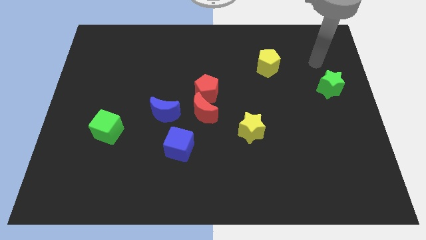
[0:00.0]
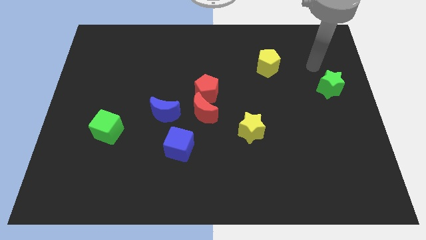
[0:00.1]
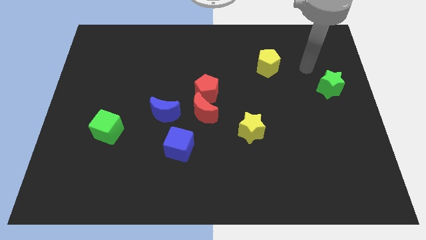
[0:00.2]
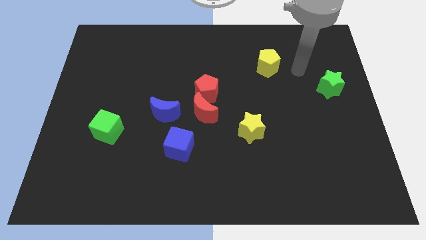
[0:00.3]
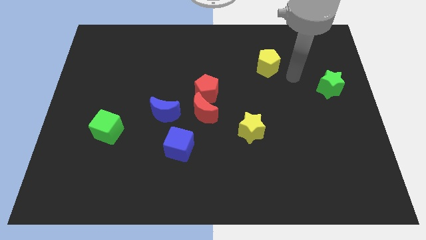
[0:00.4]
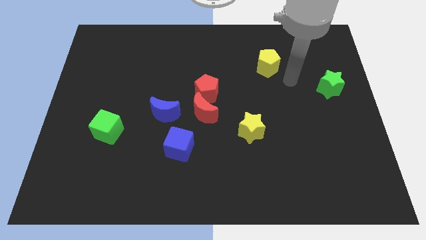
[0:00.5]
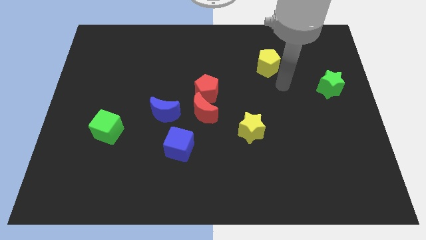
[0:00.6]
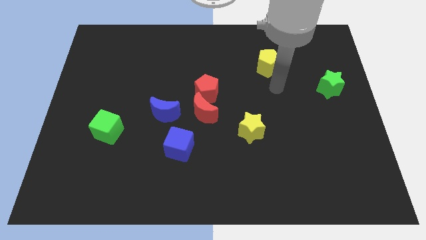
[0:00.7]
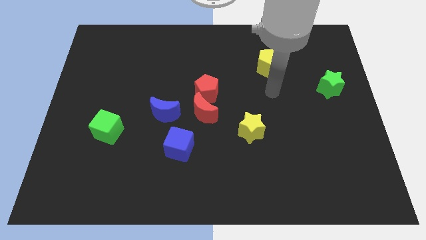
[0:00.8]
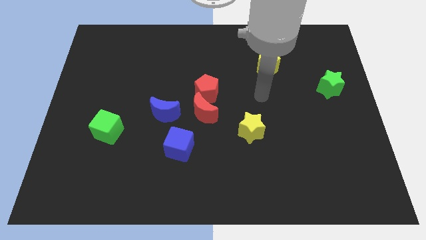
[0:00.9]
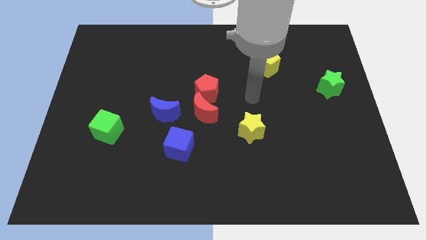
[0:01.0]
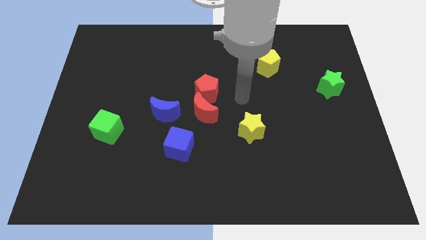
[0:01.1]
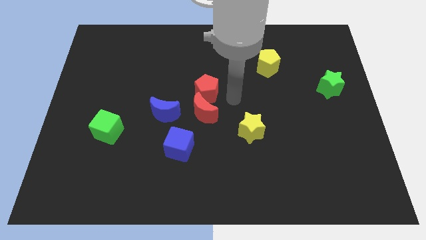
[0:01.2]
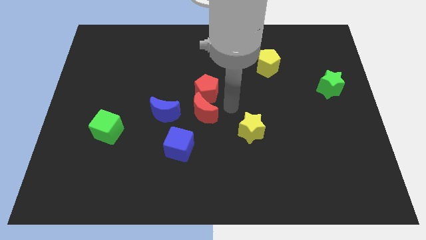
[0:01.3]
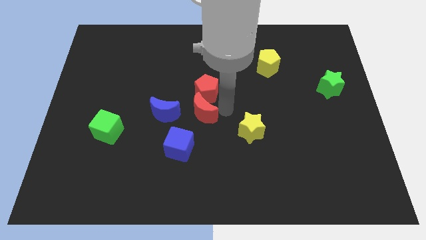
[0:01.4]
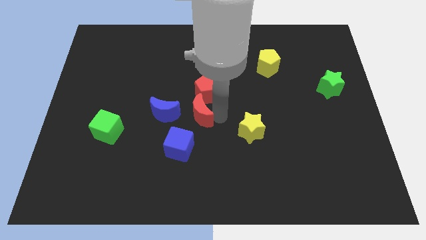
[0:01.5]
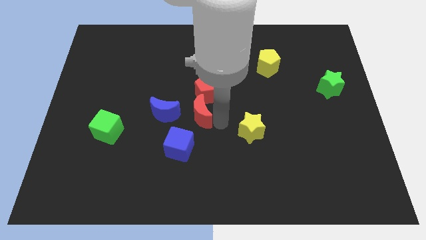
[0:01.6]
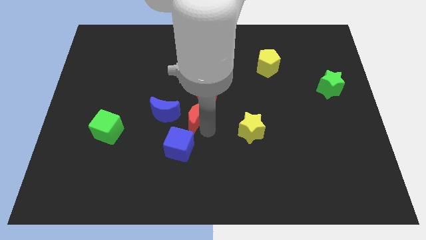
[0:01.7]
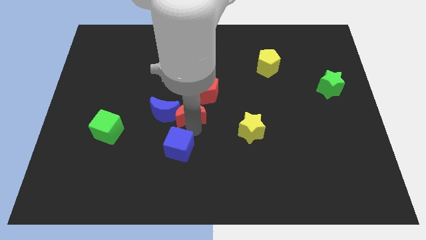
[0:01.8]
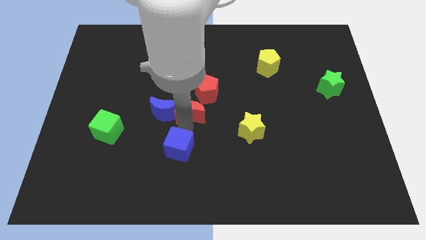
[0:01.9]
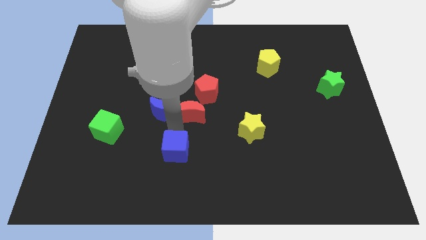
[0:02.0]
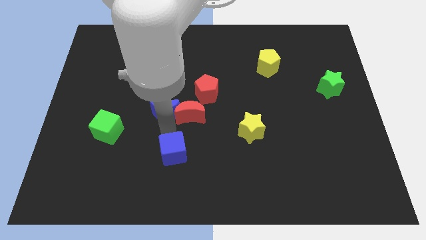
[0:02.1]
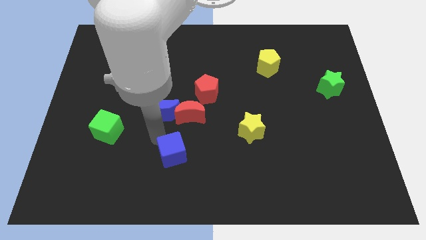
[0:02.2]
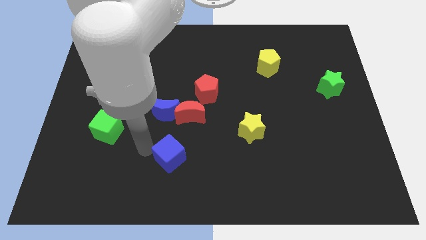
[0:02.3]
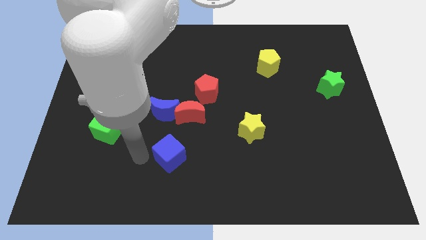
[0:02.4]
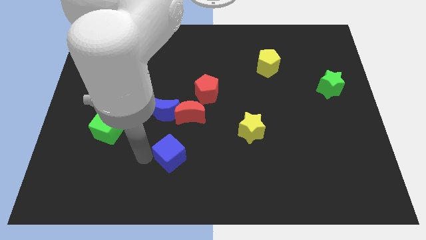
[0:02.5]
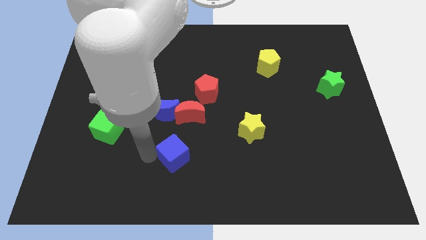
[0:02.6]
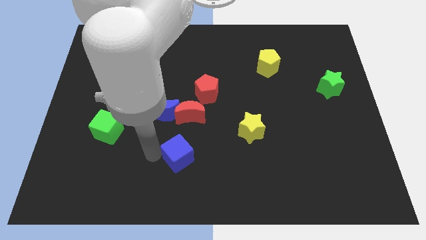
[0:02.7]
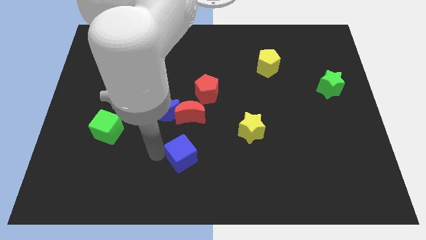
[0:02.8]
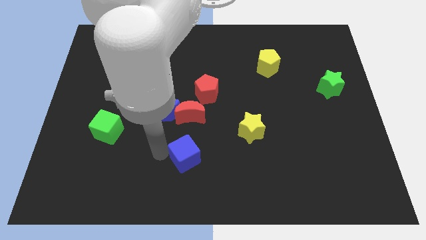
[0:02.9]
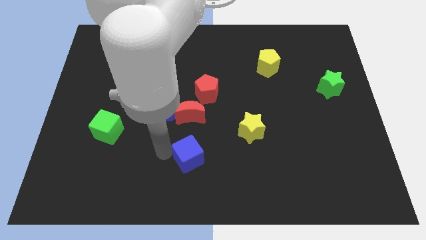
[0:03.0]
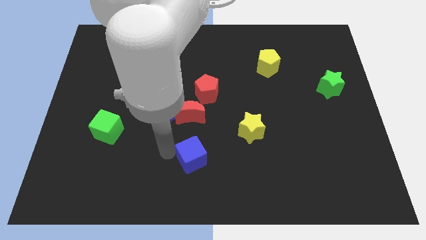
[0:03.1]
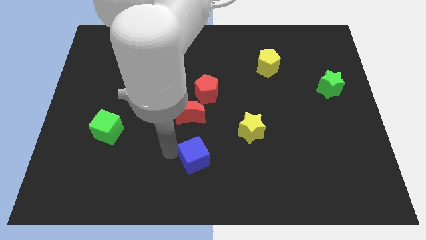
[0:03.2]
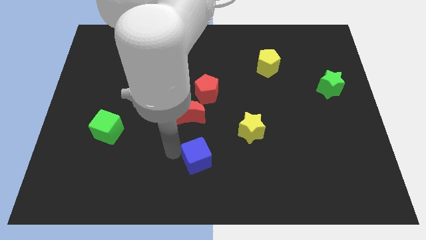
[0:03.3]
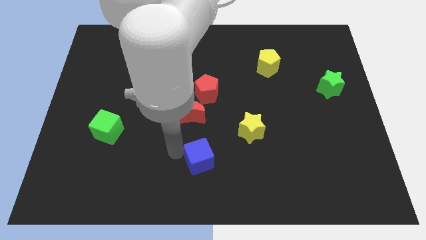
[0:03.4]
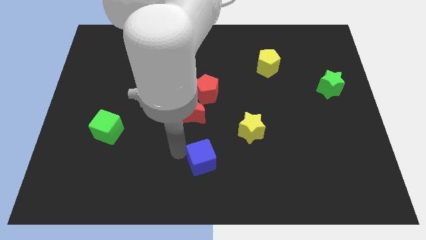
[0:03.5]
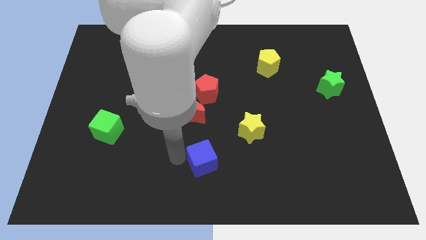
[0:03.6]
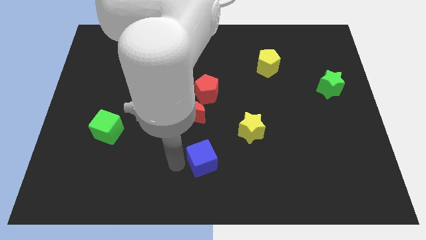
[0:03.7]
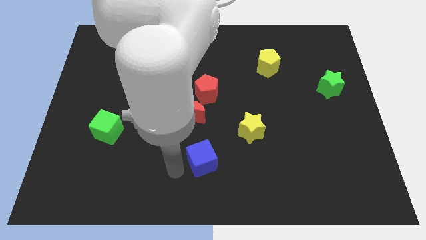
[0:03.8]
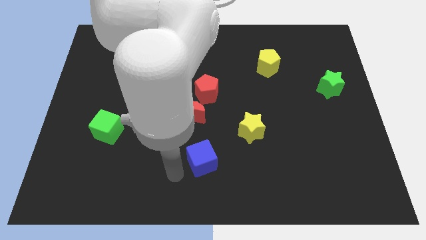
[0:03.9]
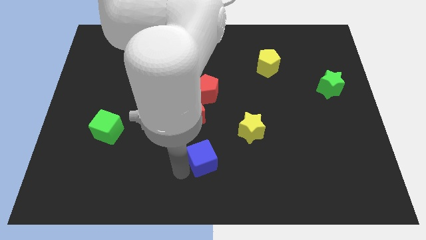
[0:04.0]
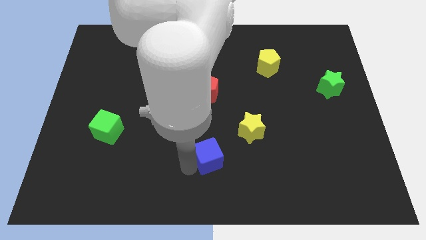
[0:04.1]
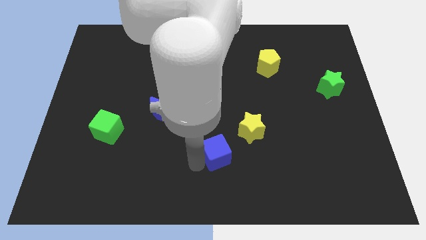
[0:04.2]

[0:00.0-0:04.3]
move the blue cube a little bit right

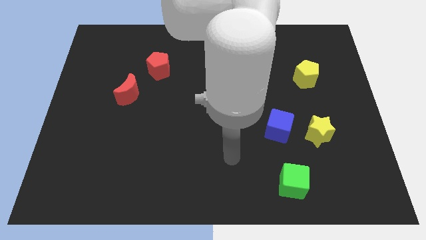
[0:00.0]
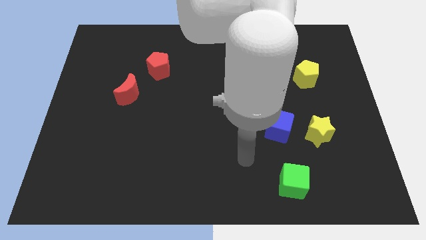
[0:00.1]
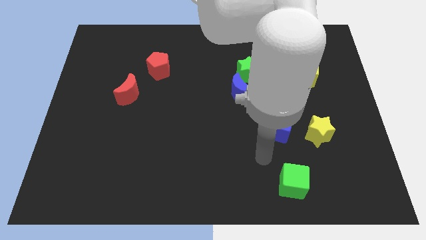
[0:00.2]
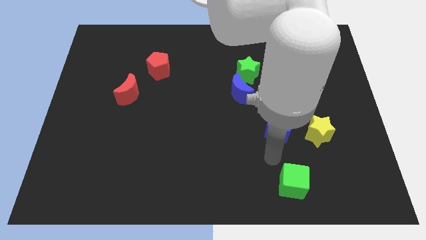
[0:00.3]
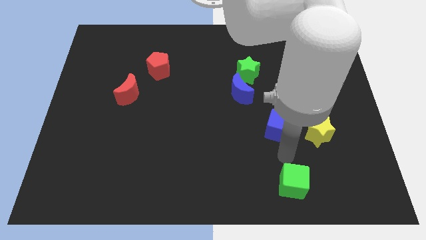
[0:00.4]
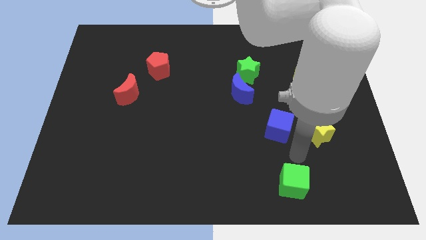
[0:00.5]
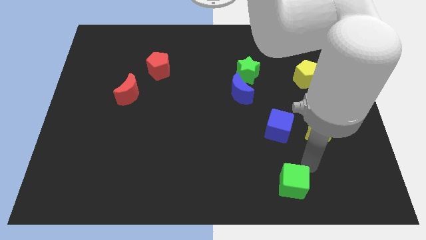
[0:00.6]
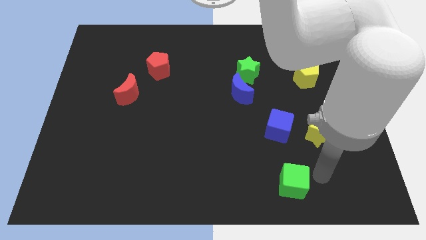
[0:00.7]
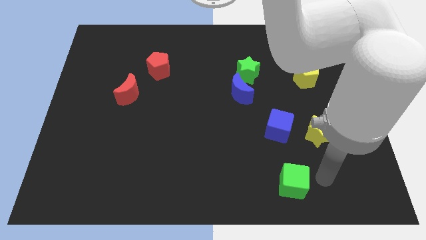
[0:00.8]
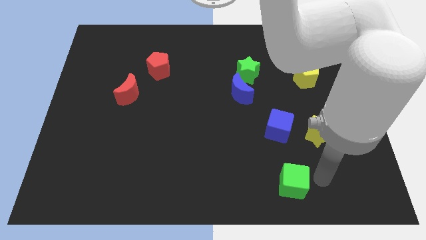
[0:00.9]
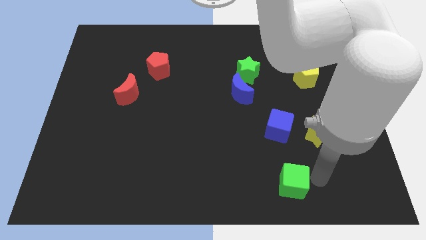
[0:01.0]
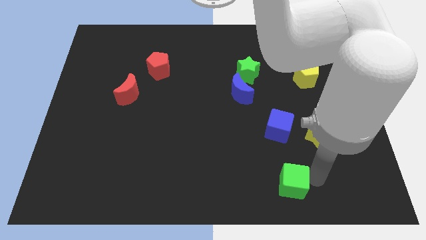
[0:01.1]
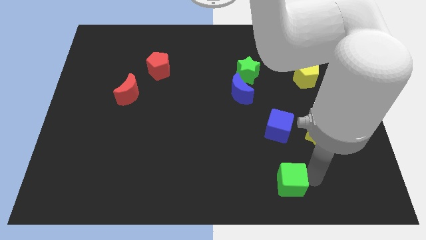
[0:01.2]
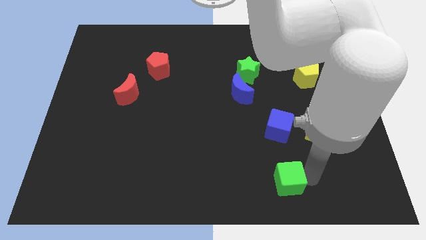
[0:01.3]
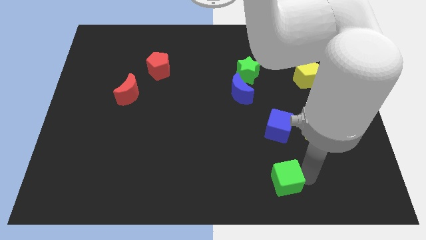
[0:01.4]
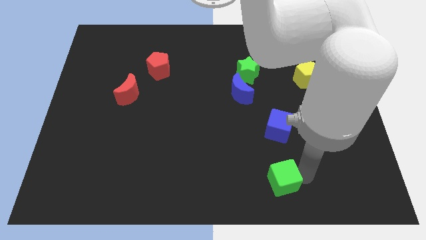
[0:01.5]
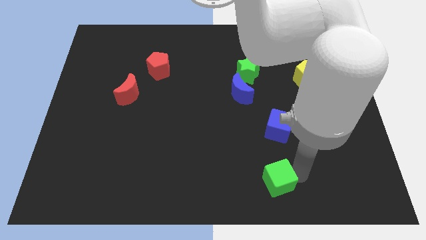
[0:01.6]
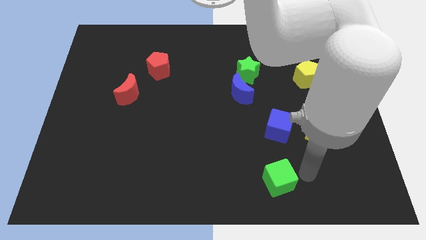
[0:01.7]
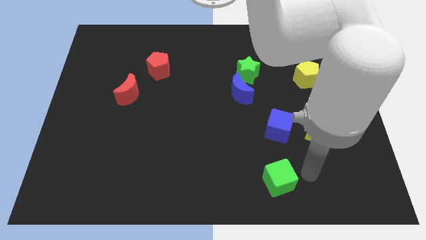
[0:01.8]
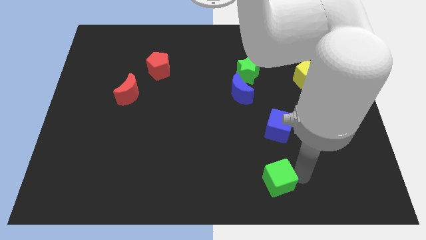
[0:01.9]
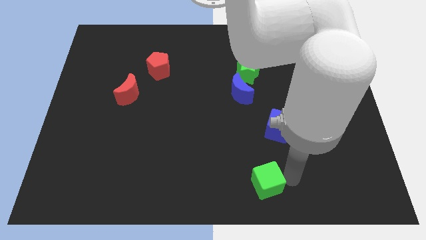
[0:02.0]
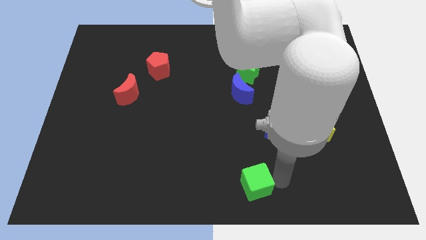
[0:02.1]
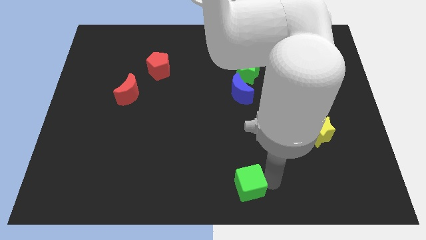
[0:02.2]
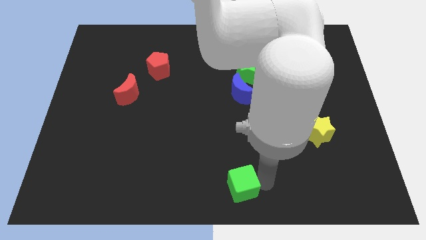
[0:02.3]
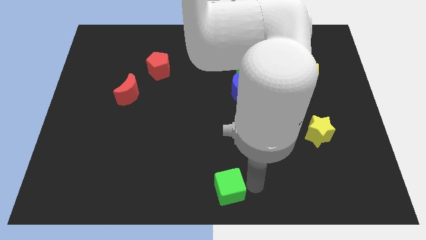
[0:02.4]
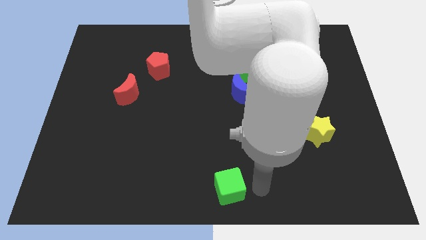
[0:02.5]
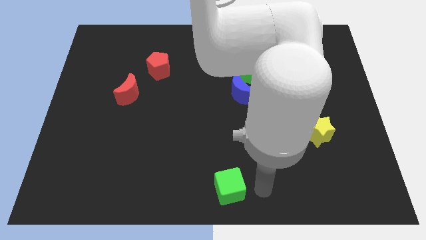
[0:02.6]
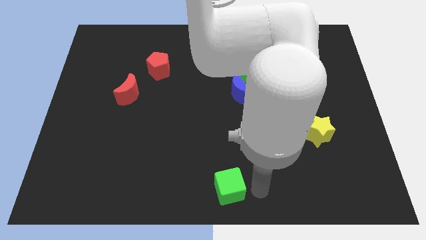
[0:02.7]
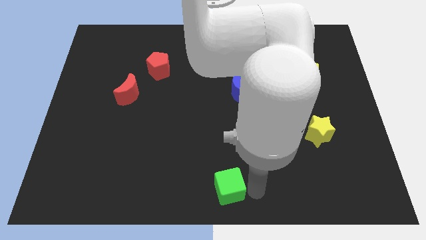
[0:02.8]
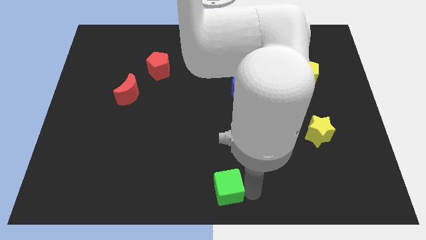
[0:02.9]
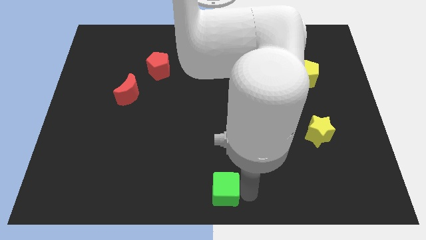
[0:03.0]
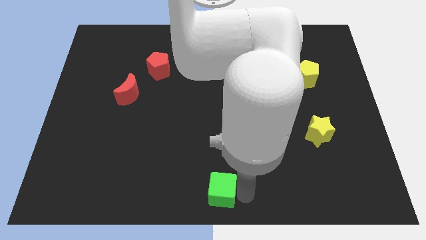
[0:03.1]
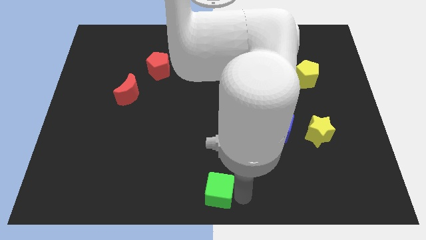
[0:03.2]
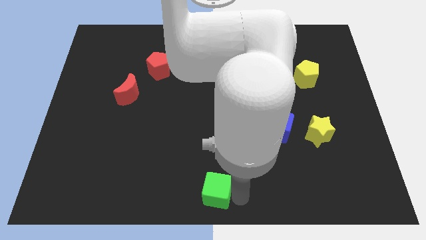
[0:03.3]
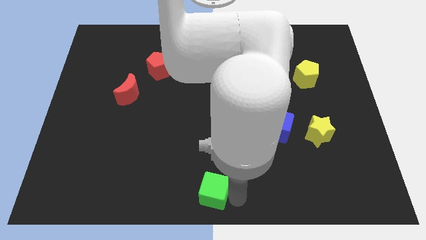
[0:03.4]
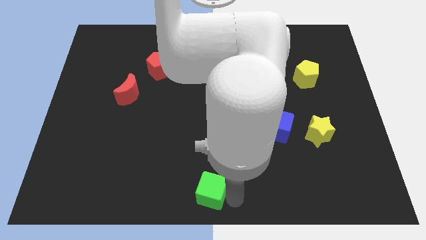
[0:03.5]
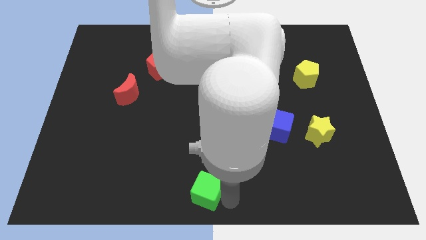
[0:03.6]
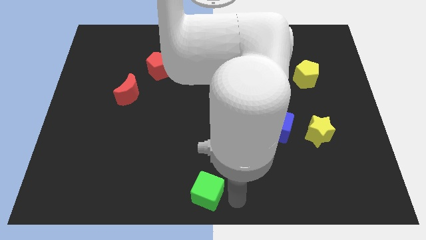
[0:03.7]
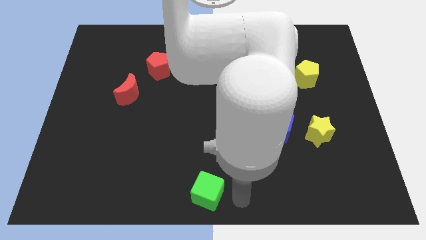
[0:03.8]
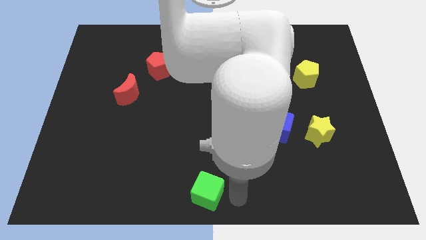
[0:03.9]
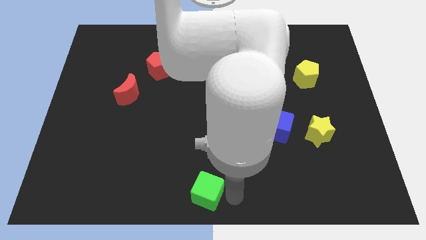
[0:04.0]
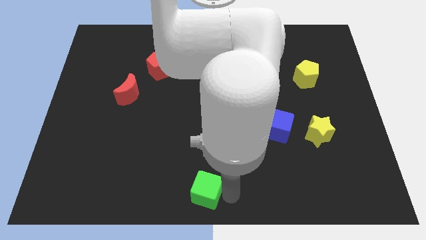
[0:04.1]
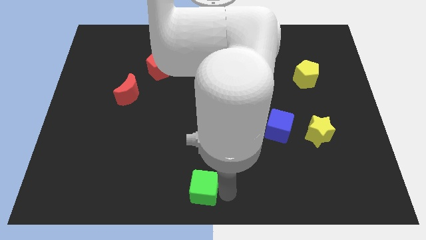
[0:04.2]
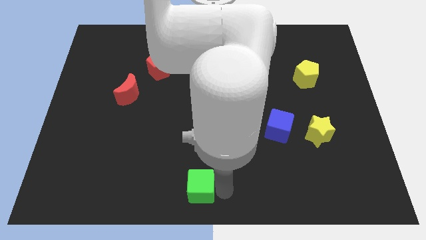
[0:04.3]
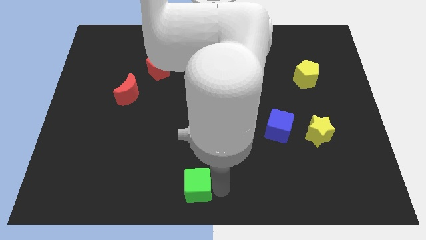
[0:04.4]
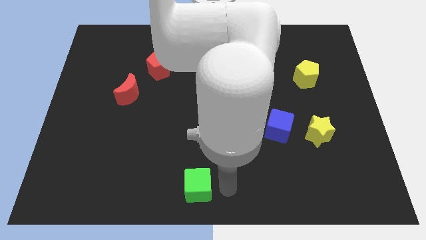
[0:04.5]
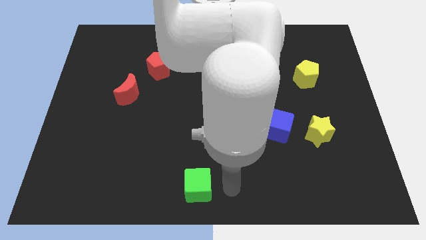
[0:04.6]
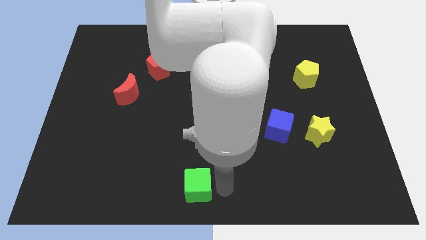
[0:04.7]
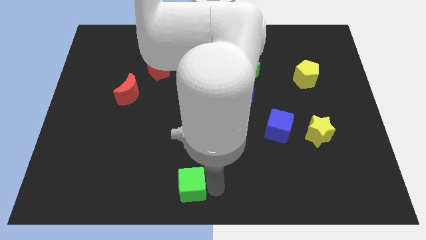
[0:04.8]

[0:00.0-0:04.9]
move the green cube left
